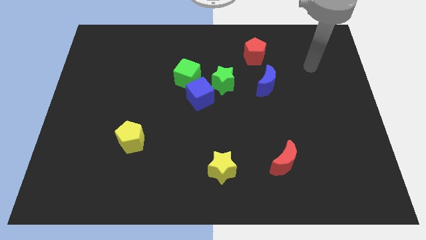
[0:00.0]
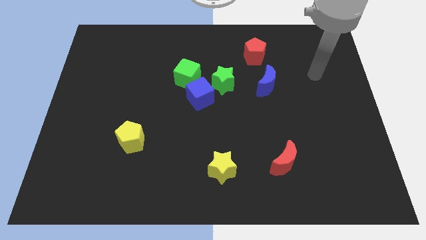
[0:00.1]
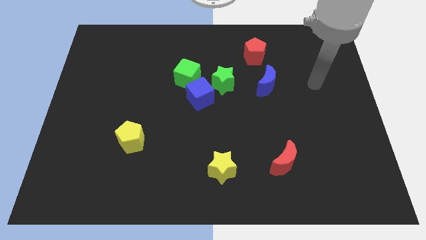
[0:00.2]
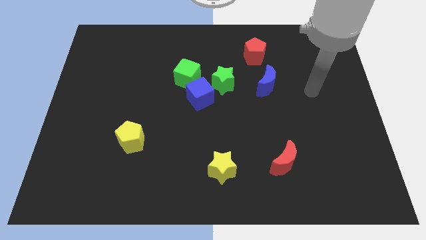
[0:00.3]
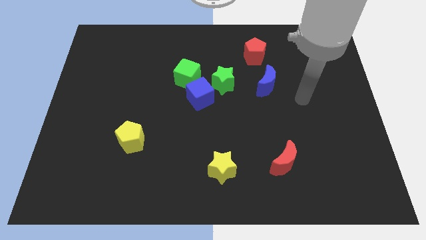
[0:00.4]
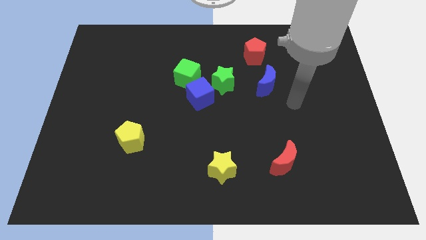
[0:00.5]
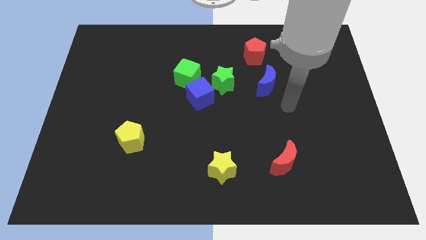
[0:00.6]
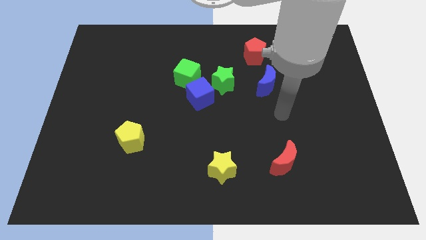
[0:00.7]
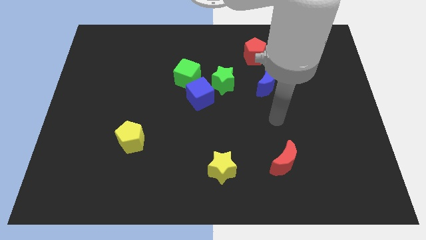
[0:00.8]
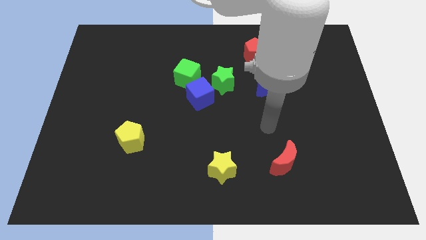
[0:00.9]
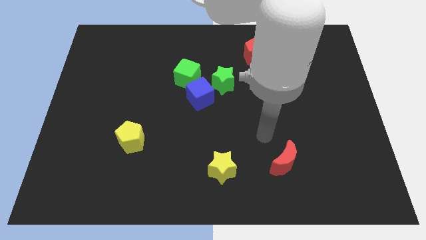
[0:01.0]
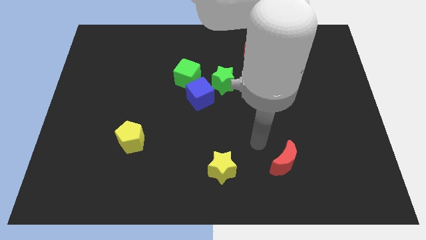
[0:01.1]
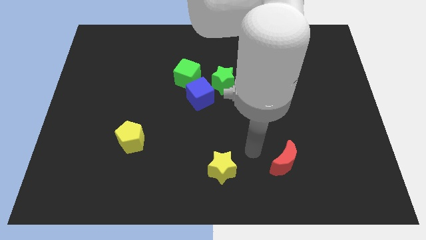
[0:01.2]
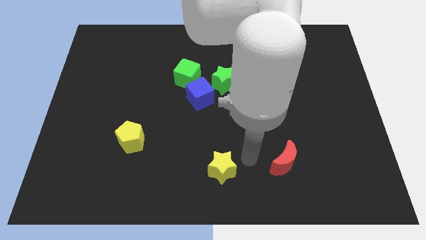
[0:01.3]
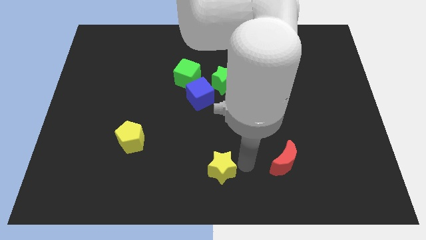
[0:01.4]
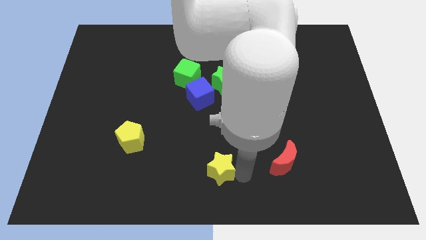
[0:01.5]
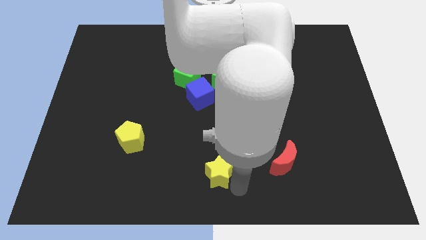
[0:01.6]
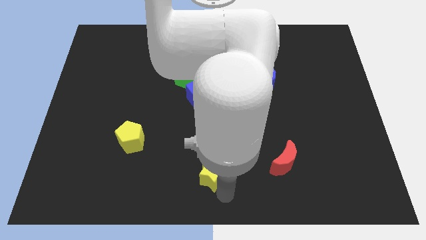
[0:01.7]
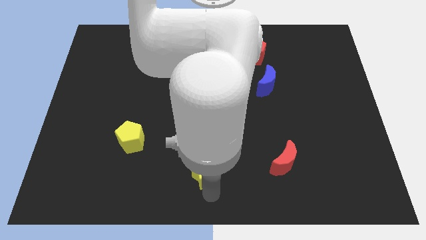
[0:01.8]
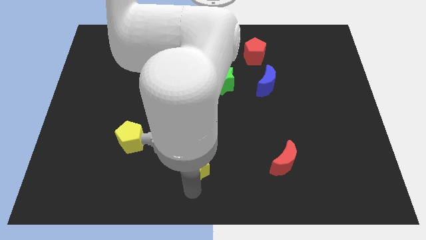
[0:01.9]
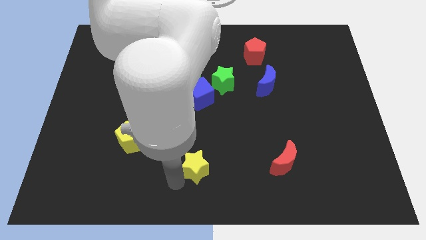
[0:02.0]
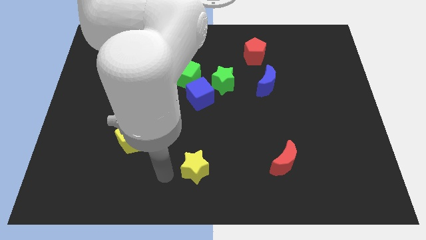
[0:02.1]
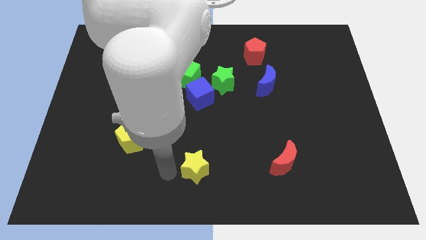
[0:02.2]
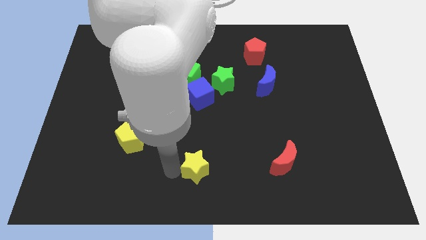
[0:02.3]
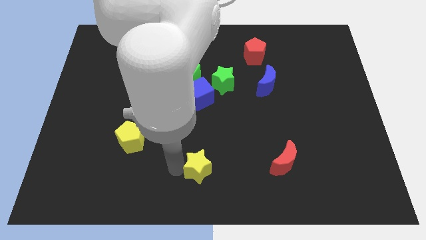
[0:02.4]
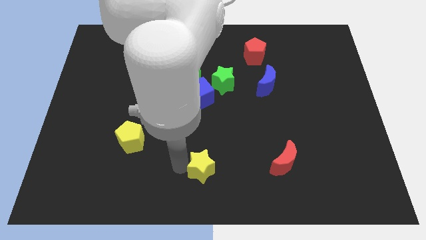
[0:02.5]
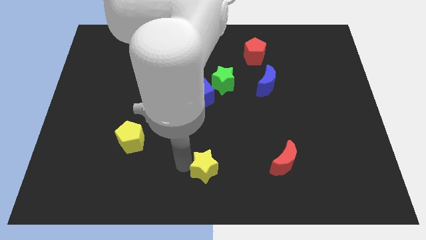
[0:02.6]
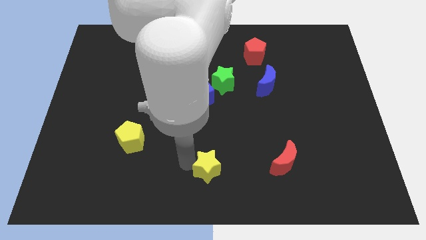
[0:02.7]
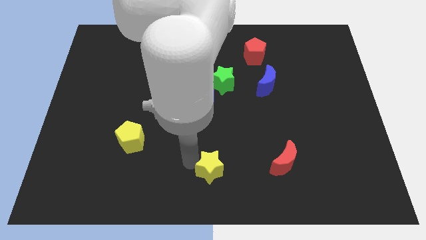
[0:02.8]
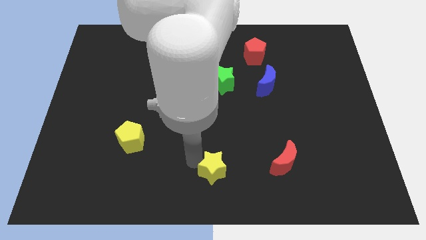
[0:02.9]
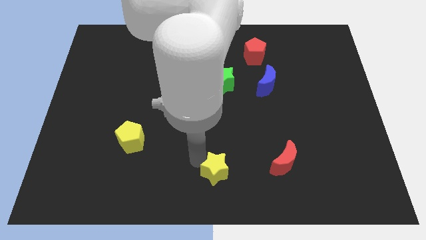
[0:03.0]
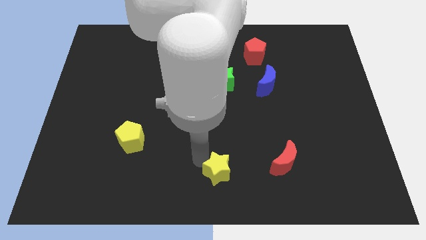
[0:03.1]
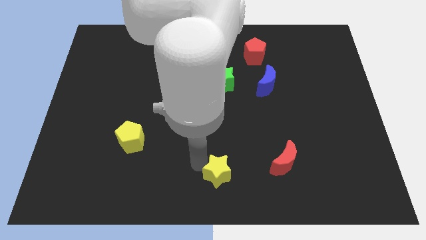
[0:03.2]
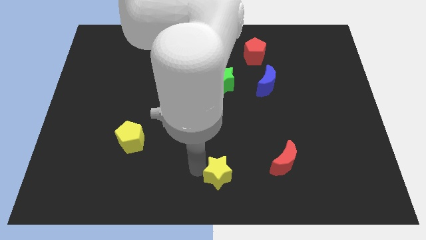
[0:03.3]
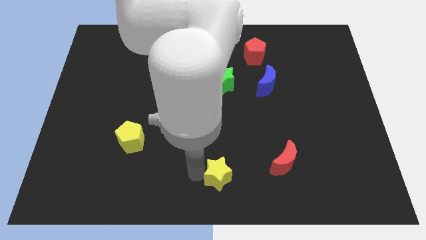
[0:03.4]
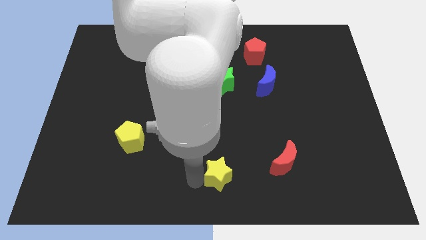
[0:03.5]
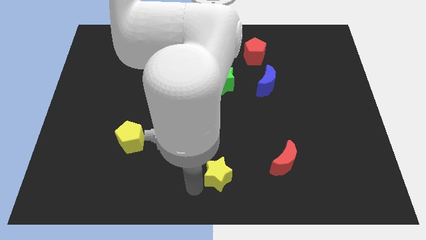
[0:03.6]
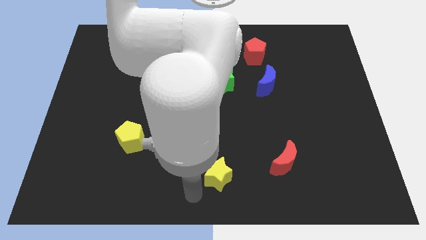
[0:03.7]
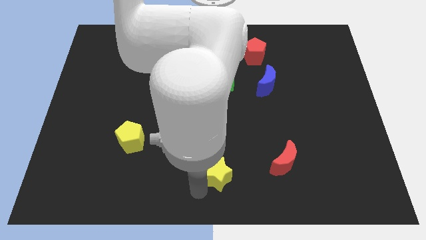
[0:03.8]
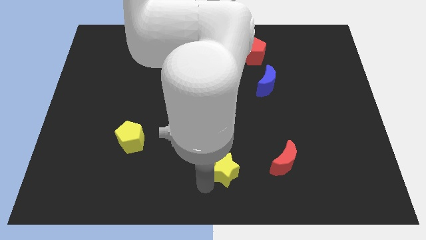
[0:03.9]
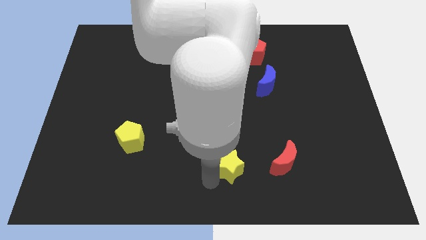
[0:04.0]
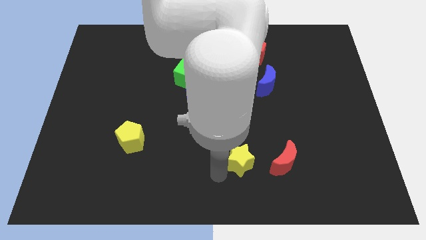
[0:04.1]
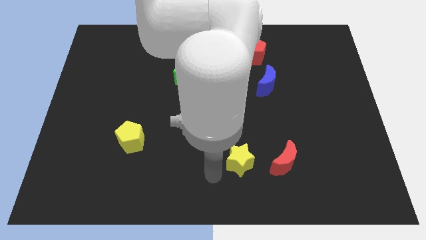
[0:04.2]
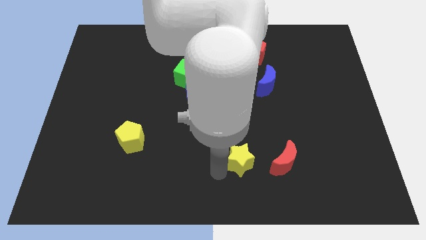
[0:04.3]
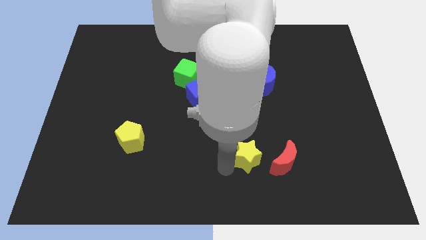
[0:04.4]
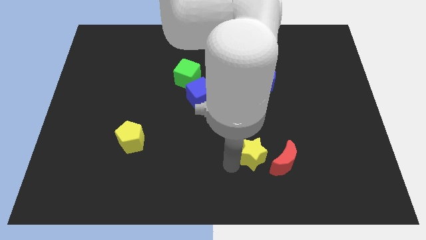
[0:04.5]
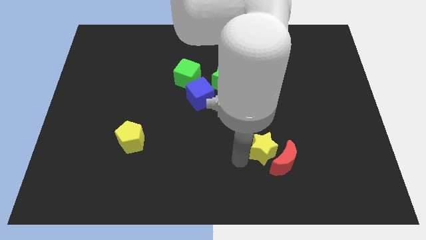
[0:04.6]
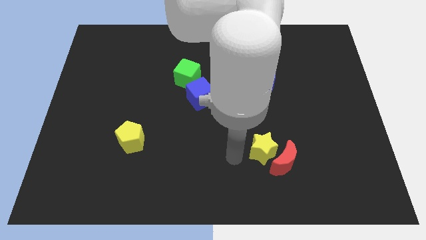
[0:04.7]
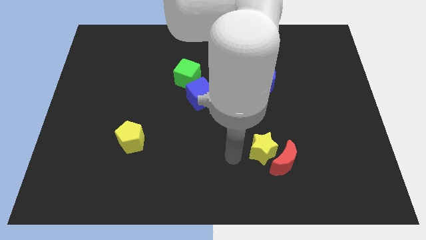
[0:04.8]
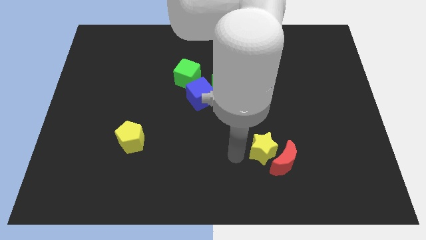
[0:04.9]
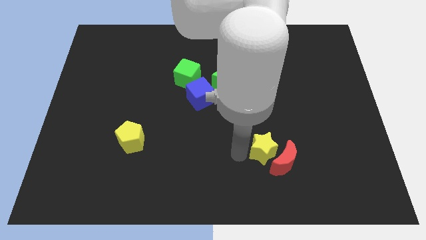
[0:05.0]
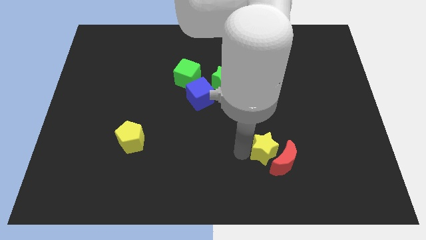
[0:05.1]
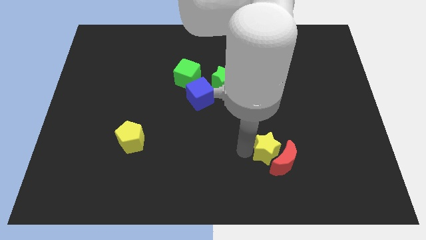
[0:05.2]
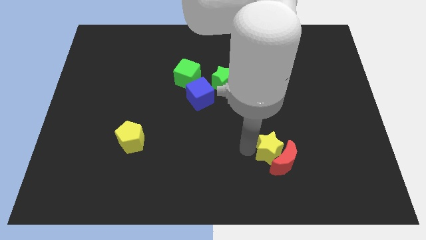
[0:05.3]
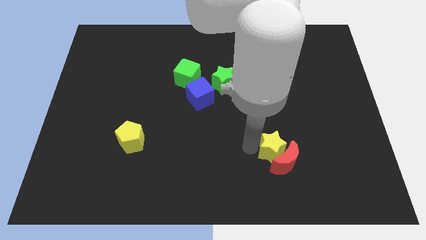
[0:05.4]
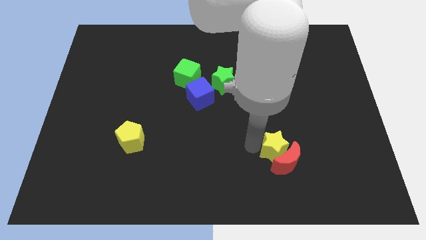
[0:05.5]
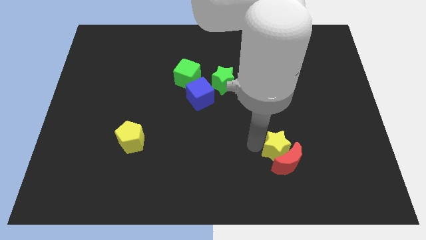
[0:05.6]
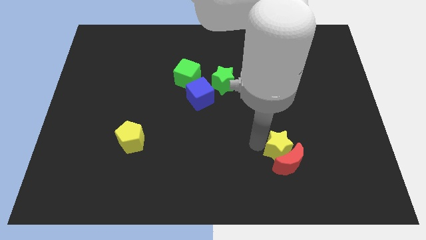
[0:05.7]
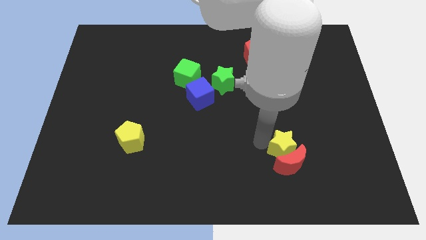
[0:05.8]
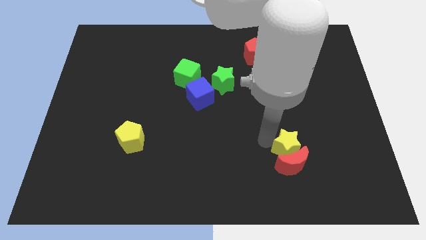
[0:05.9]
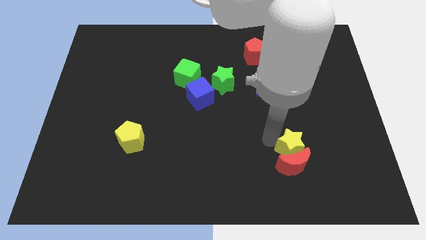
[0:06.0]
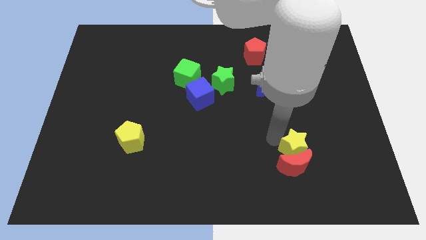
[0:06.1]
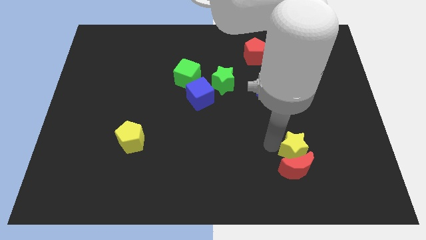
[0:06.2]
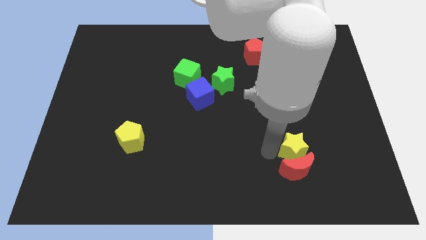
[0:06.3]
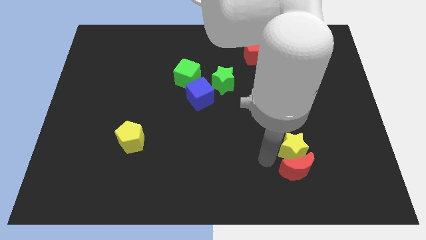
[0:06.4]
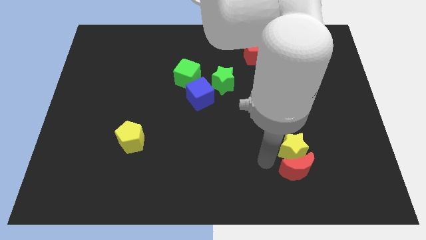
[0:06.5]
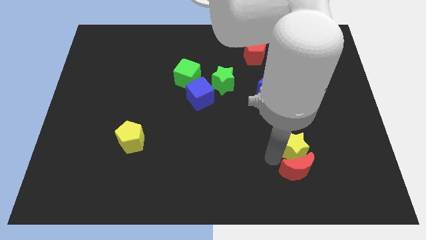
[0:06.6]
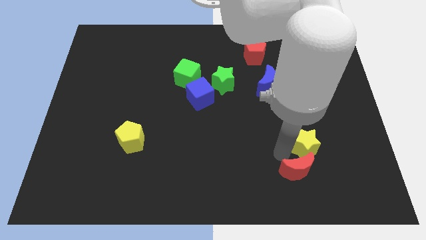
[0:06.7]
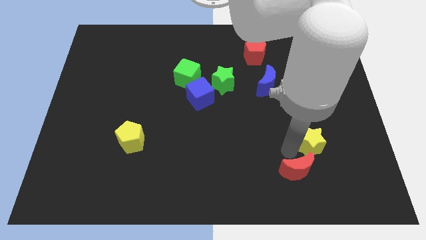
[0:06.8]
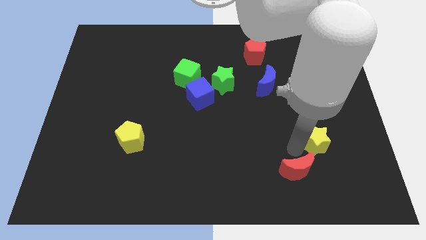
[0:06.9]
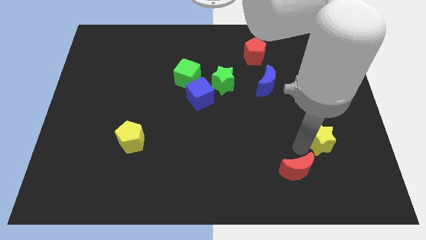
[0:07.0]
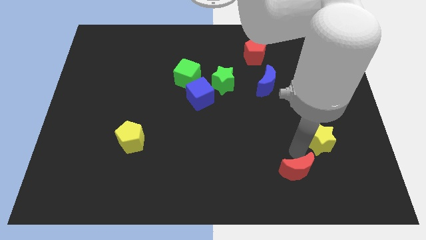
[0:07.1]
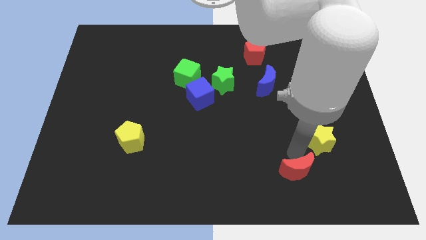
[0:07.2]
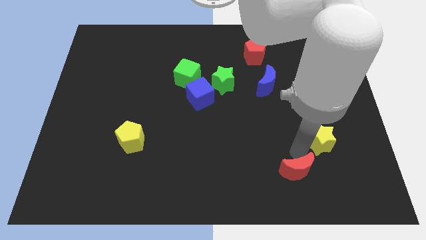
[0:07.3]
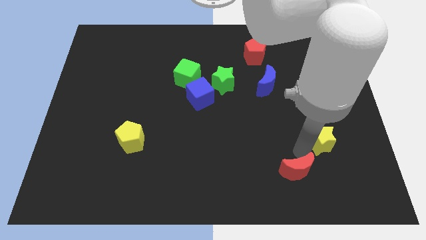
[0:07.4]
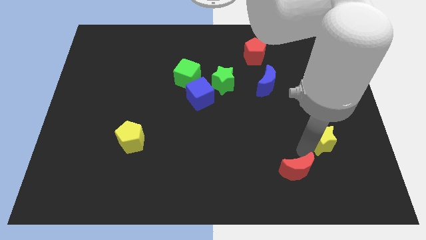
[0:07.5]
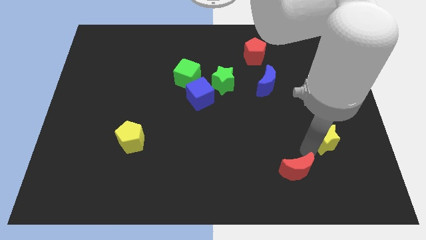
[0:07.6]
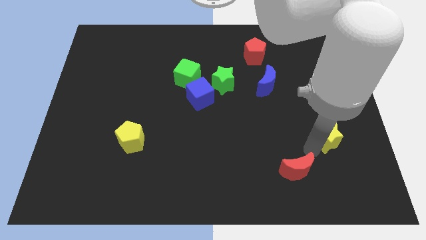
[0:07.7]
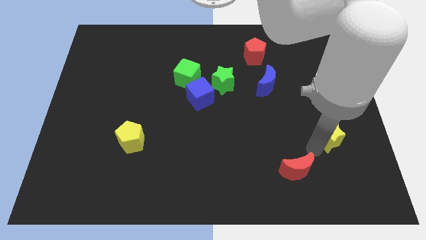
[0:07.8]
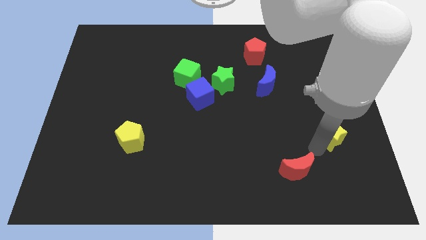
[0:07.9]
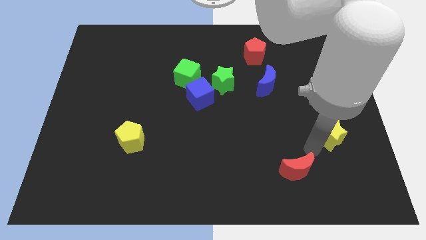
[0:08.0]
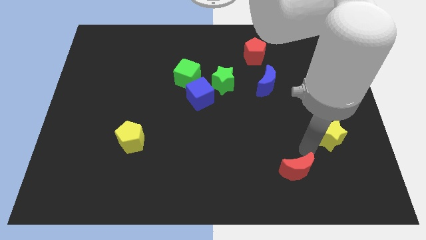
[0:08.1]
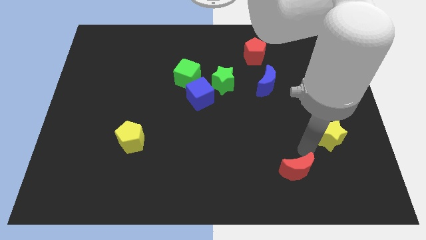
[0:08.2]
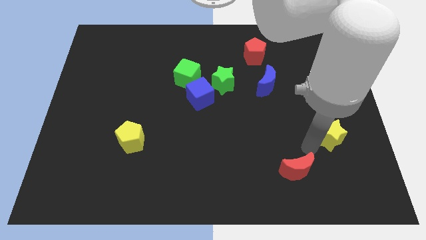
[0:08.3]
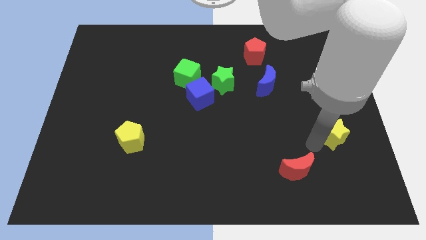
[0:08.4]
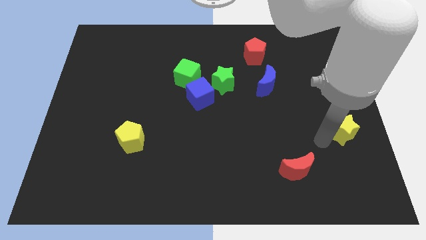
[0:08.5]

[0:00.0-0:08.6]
push the yellow star to the right side of the board
